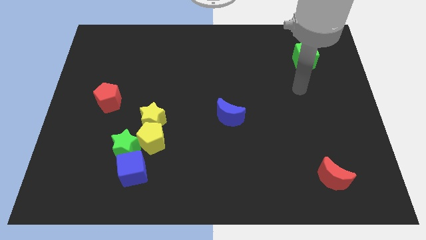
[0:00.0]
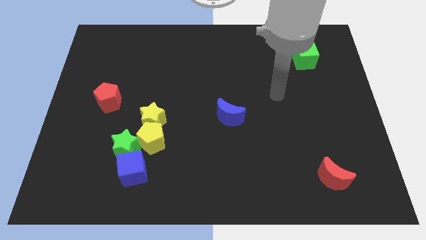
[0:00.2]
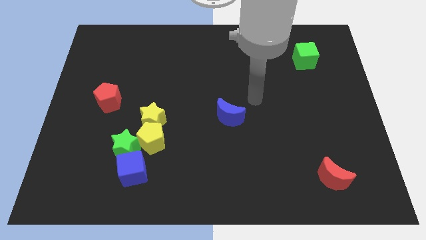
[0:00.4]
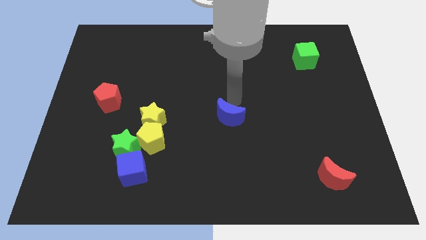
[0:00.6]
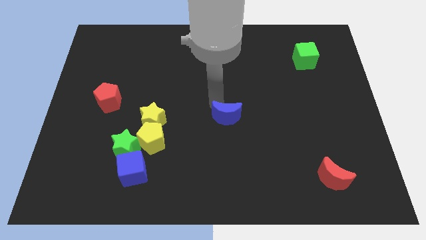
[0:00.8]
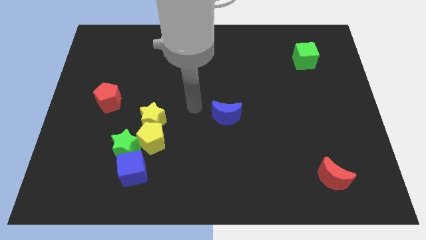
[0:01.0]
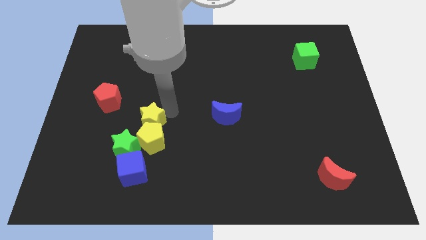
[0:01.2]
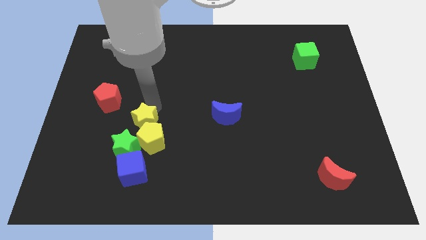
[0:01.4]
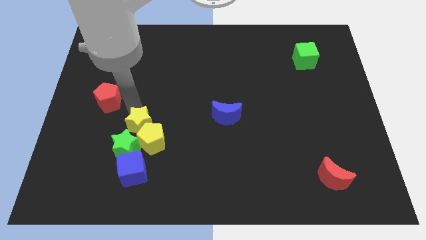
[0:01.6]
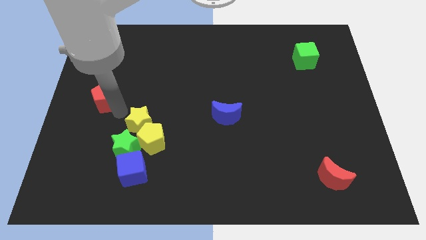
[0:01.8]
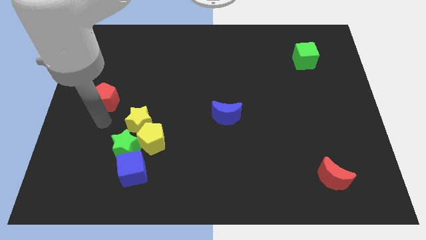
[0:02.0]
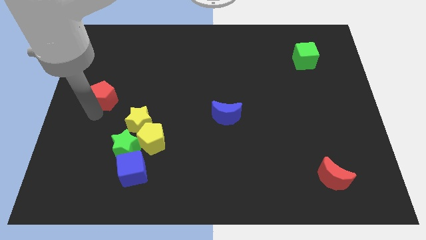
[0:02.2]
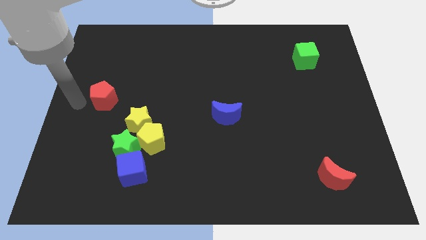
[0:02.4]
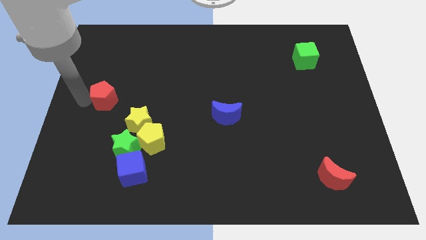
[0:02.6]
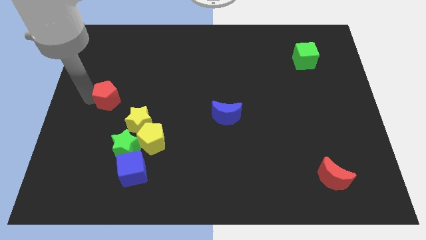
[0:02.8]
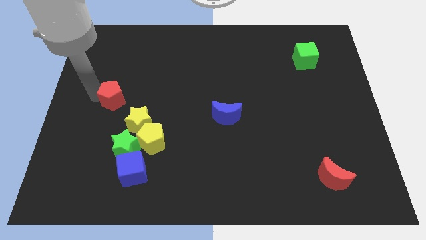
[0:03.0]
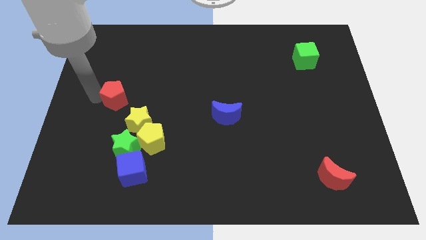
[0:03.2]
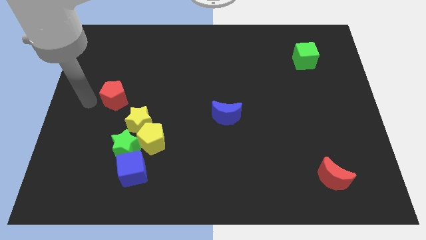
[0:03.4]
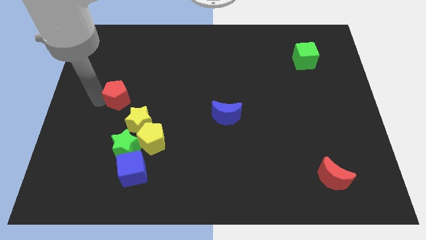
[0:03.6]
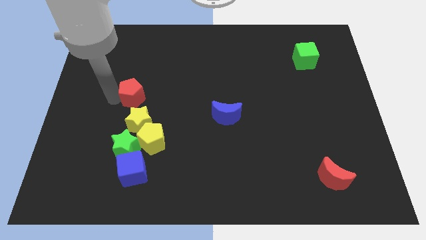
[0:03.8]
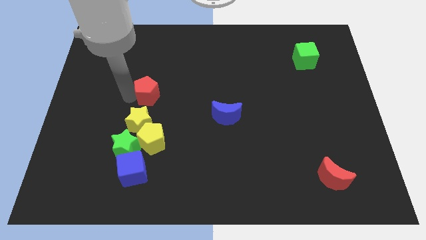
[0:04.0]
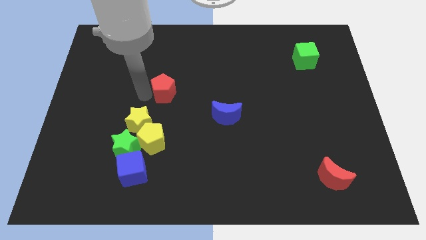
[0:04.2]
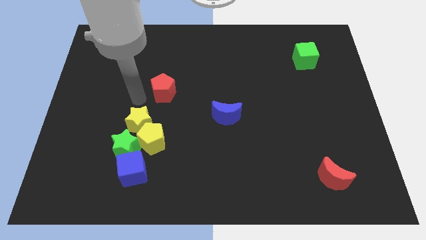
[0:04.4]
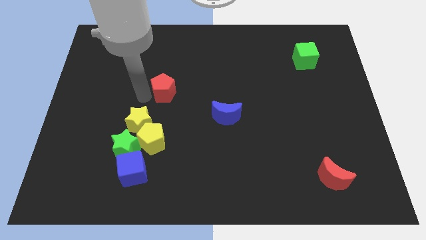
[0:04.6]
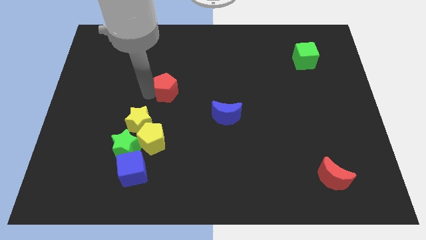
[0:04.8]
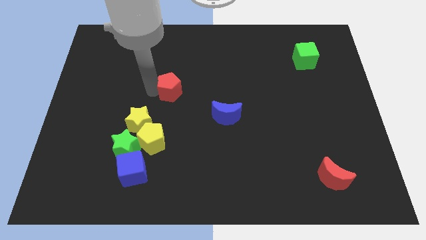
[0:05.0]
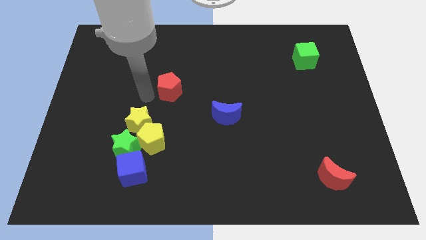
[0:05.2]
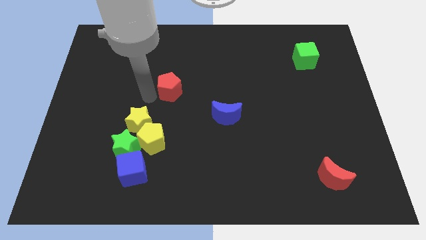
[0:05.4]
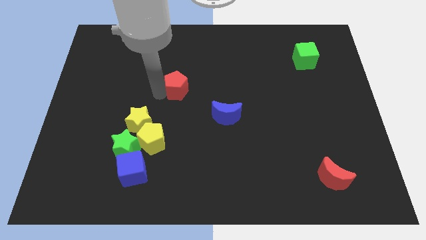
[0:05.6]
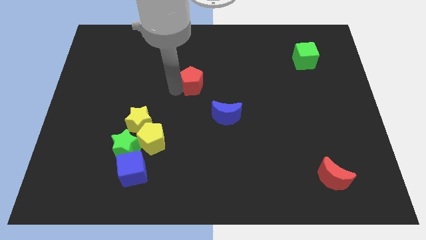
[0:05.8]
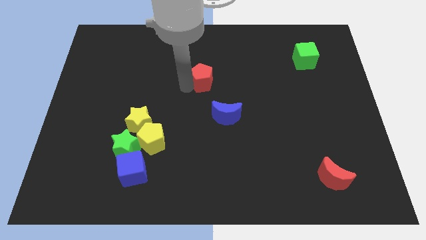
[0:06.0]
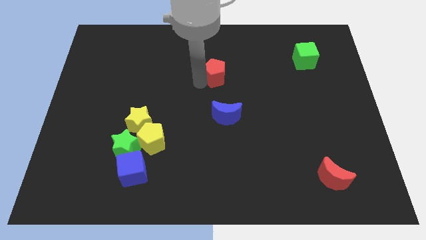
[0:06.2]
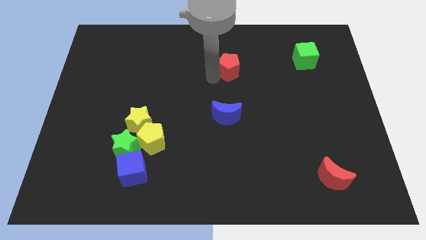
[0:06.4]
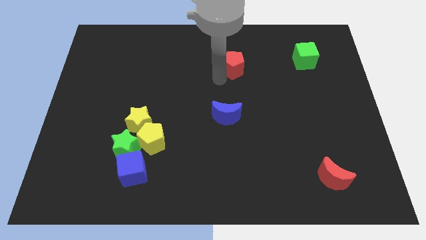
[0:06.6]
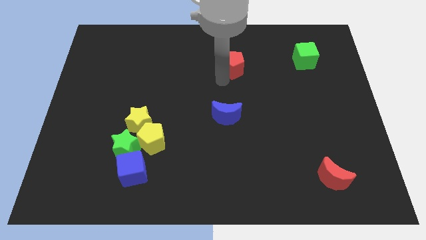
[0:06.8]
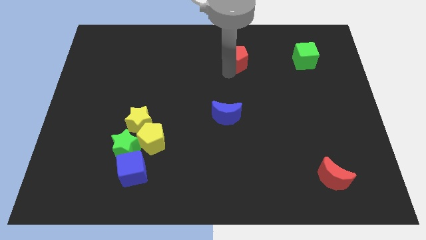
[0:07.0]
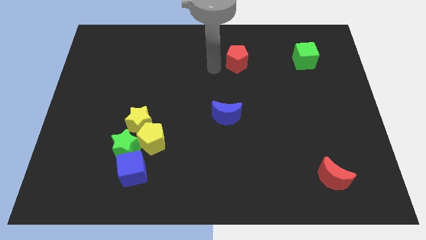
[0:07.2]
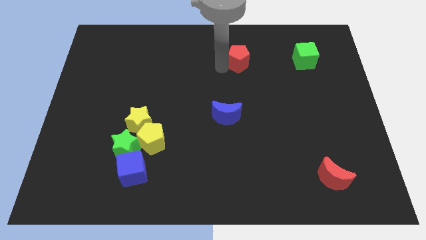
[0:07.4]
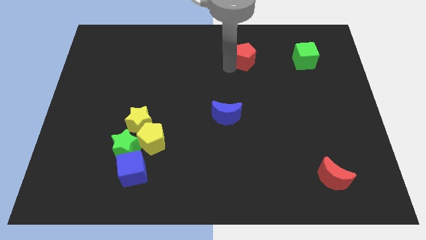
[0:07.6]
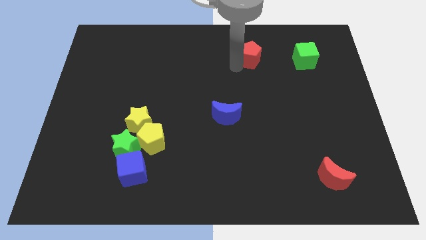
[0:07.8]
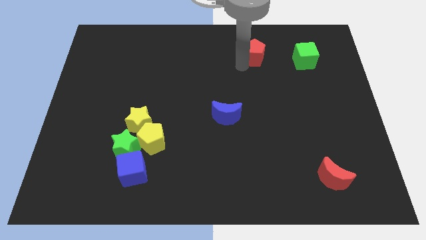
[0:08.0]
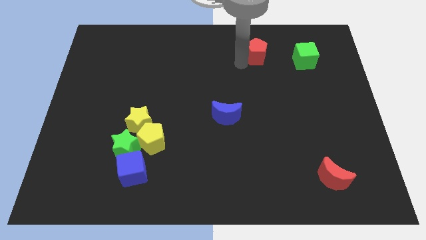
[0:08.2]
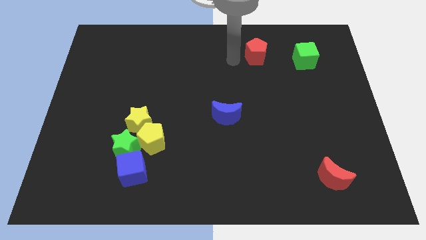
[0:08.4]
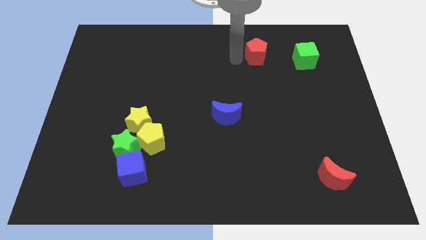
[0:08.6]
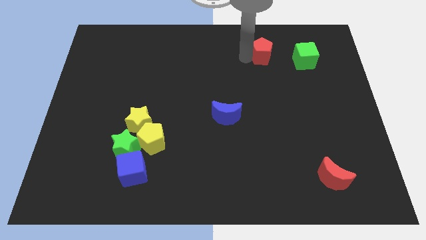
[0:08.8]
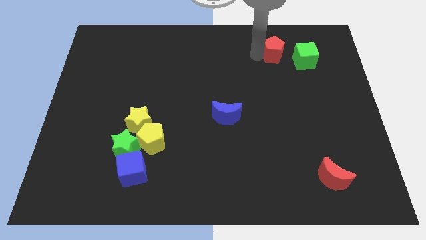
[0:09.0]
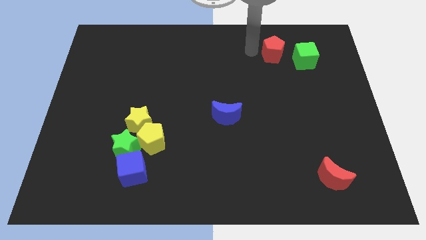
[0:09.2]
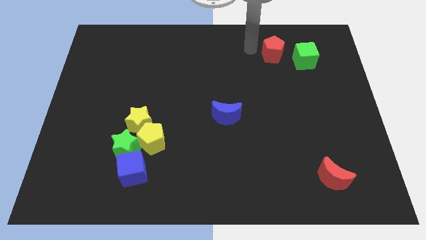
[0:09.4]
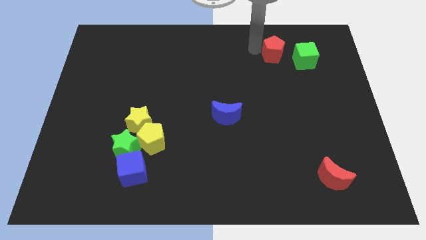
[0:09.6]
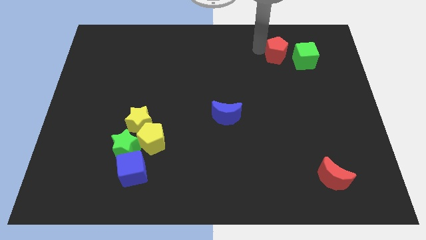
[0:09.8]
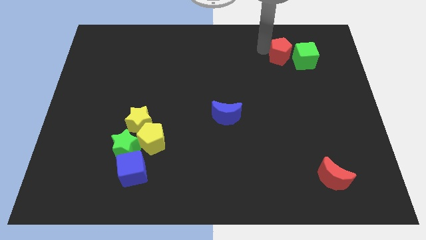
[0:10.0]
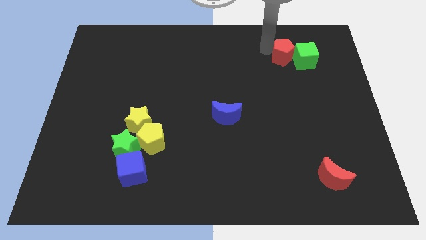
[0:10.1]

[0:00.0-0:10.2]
put the red pentagon close to the green cube

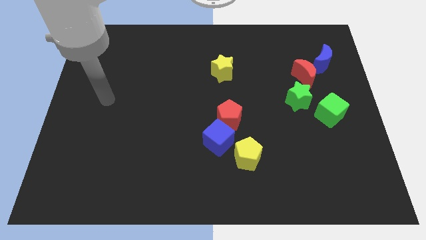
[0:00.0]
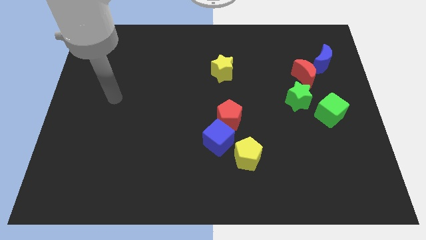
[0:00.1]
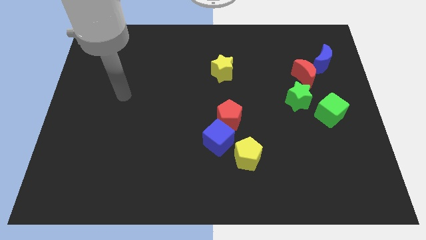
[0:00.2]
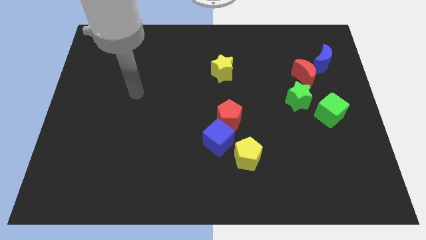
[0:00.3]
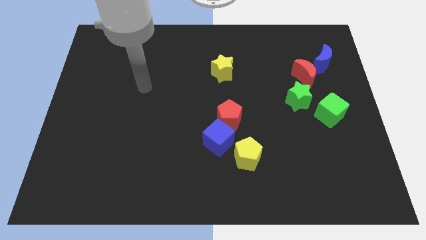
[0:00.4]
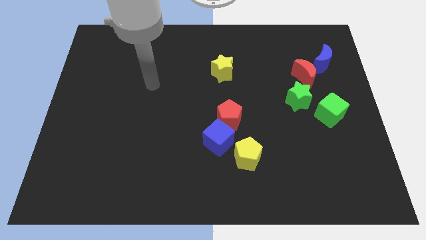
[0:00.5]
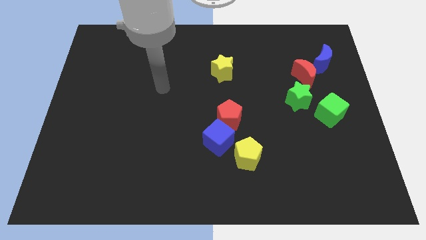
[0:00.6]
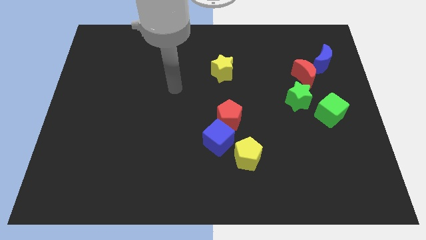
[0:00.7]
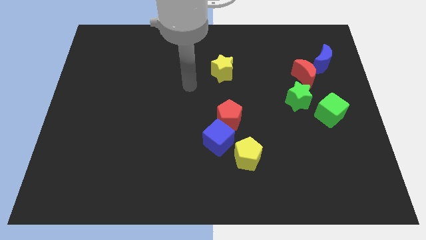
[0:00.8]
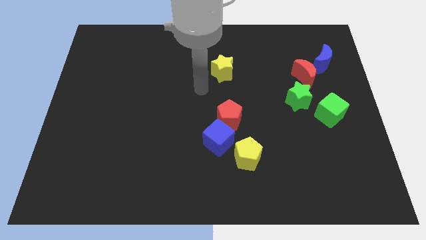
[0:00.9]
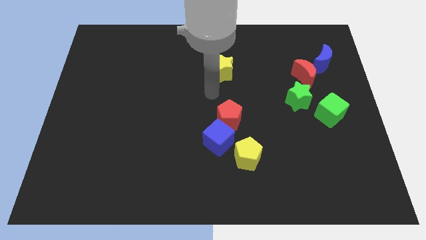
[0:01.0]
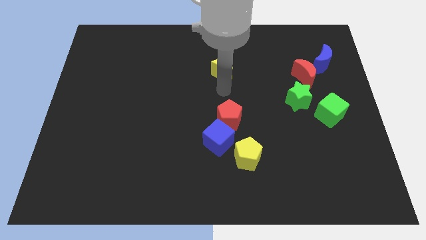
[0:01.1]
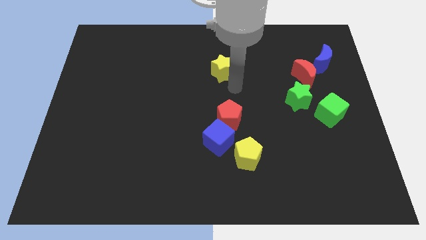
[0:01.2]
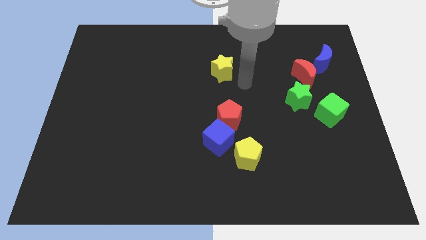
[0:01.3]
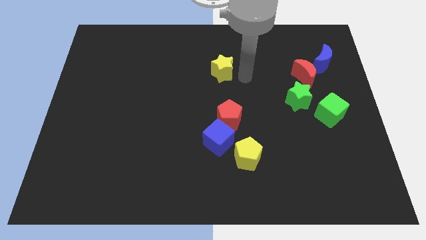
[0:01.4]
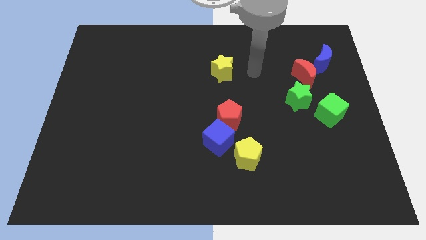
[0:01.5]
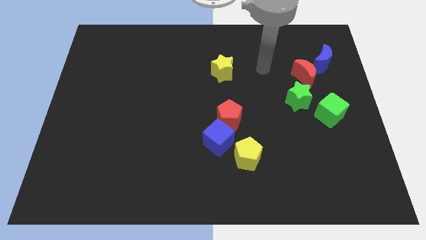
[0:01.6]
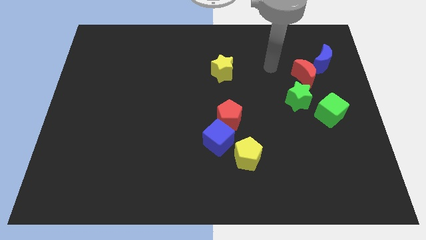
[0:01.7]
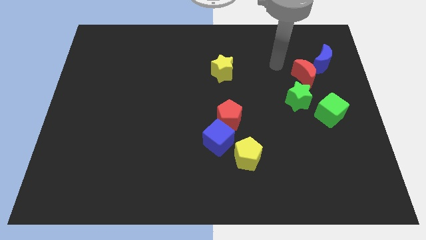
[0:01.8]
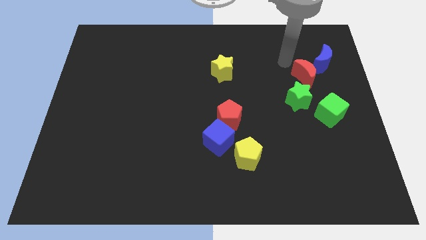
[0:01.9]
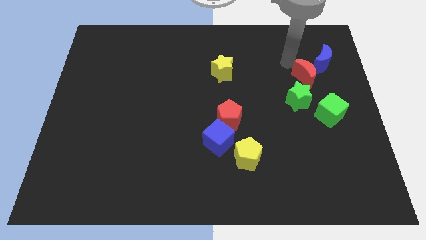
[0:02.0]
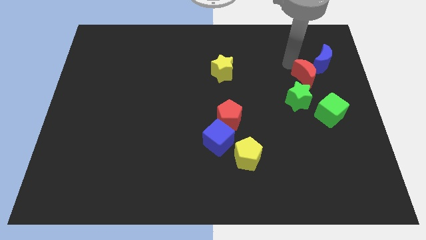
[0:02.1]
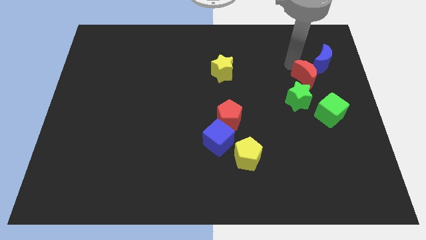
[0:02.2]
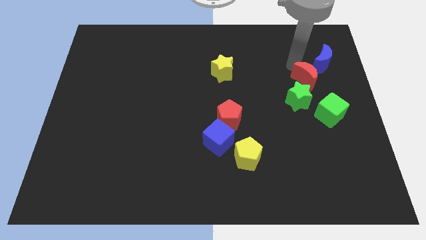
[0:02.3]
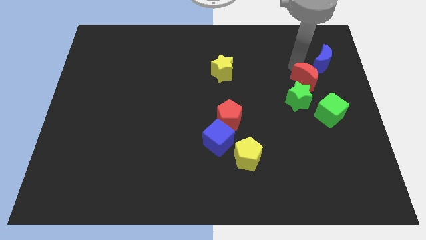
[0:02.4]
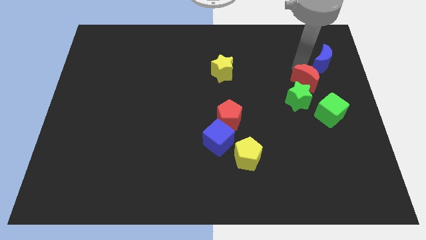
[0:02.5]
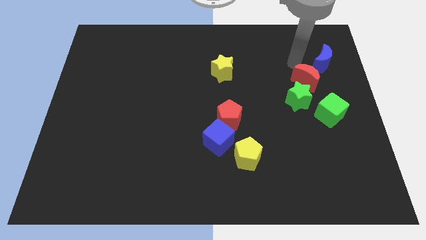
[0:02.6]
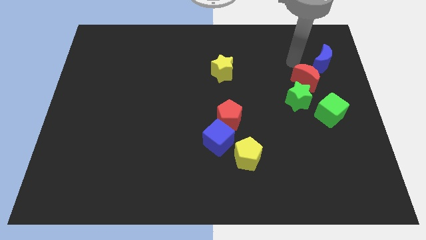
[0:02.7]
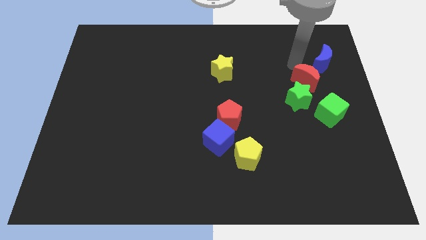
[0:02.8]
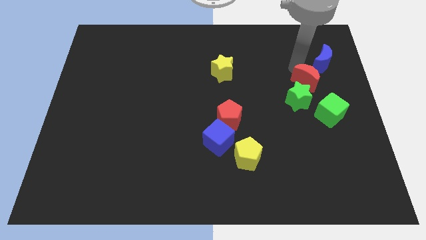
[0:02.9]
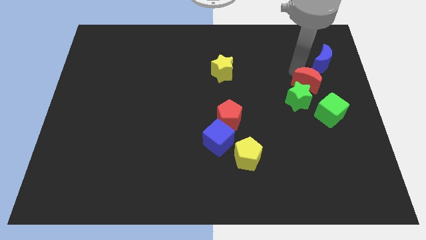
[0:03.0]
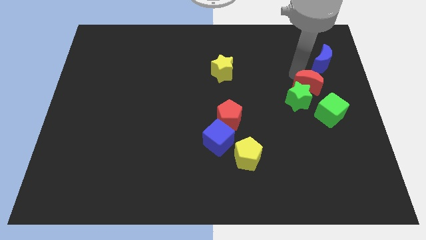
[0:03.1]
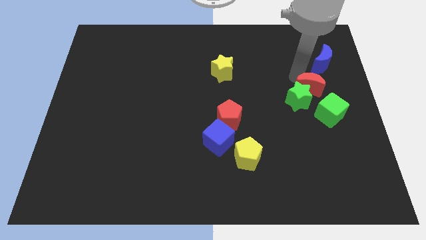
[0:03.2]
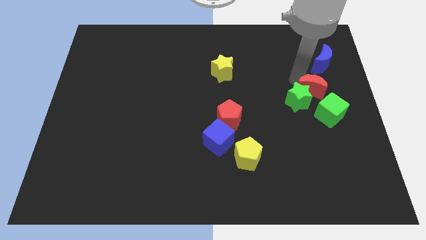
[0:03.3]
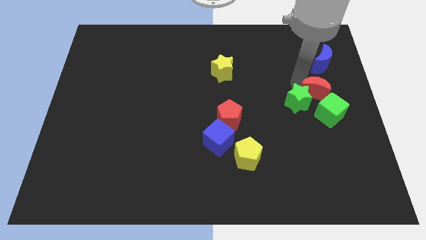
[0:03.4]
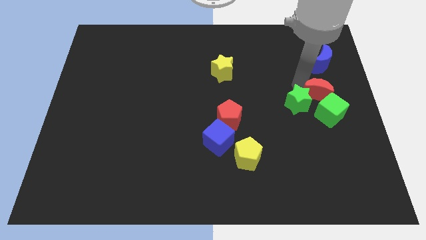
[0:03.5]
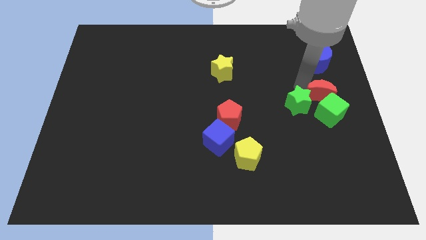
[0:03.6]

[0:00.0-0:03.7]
slide the red moon towards the green cube
